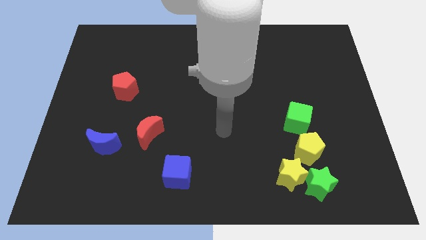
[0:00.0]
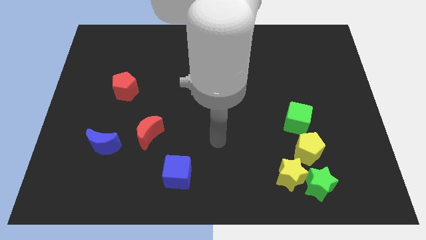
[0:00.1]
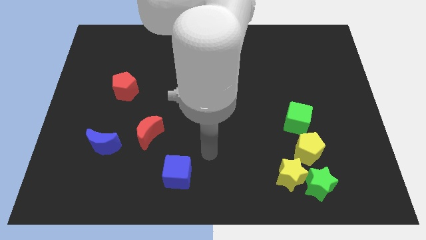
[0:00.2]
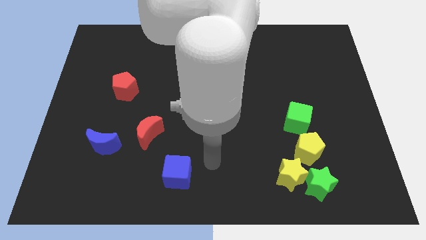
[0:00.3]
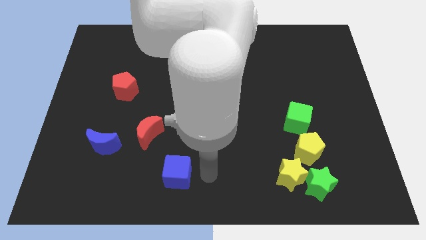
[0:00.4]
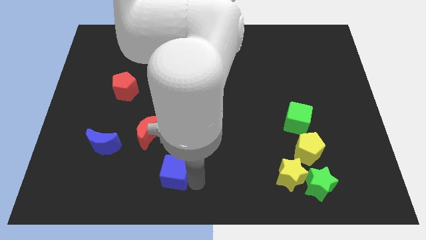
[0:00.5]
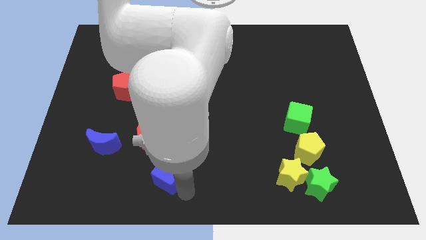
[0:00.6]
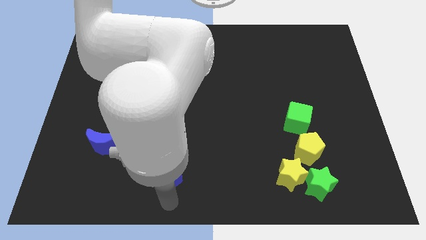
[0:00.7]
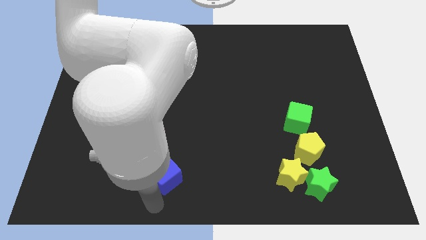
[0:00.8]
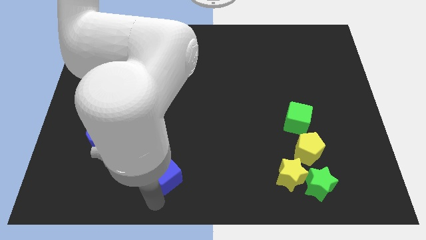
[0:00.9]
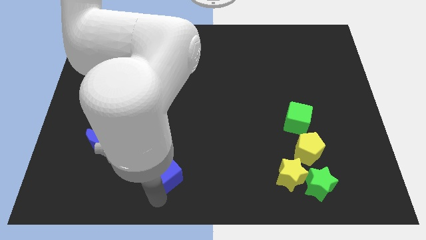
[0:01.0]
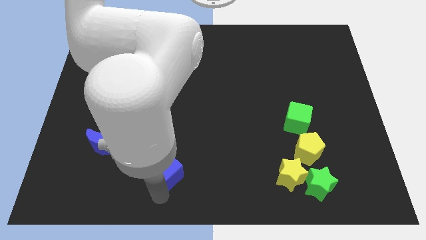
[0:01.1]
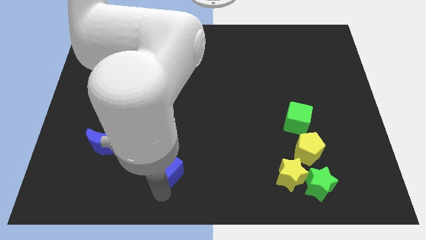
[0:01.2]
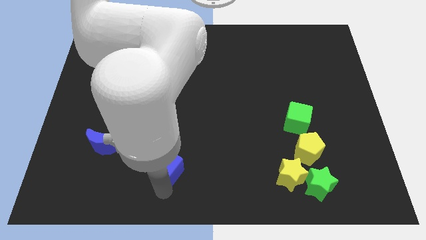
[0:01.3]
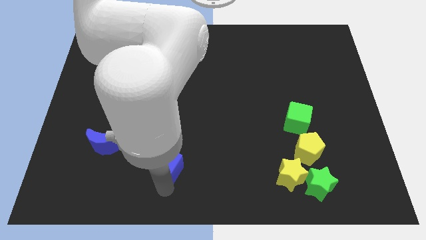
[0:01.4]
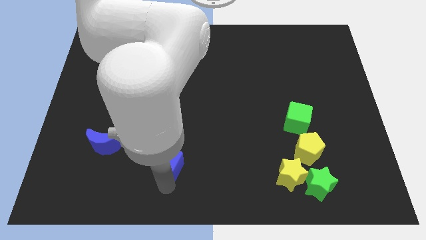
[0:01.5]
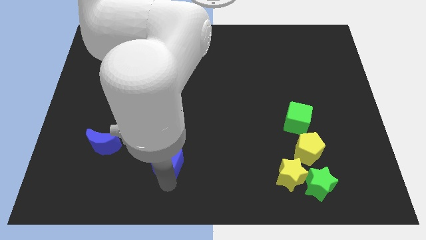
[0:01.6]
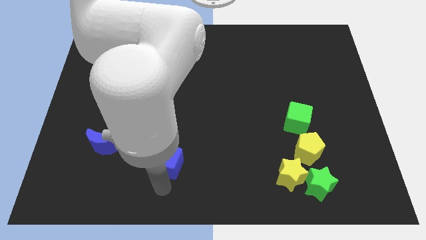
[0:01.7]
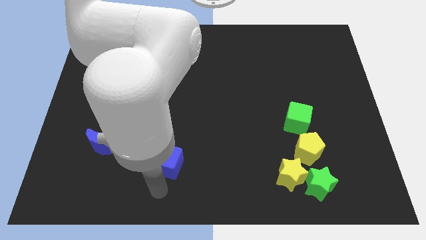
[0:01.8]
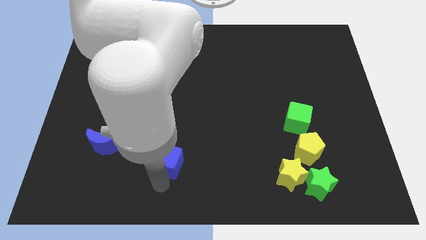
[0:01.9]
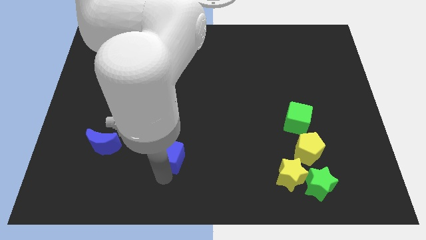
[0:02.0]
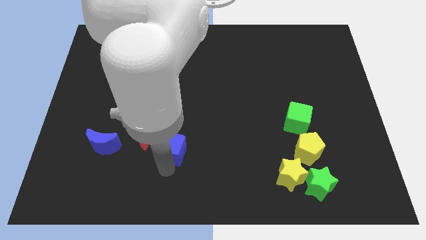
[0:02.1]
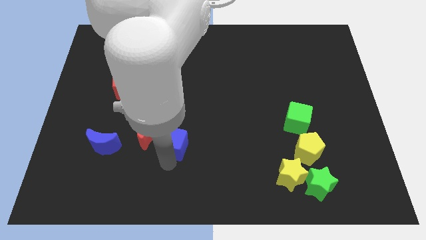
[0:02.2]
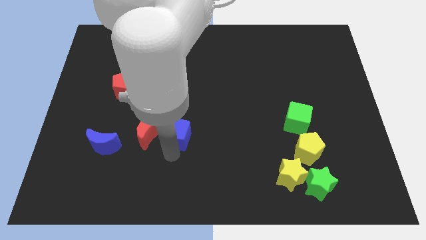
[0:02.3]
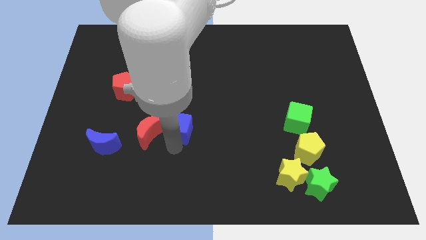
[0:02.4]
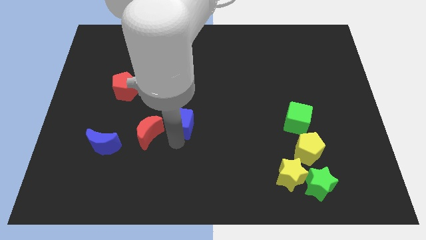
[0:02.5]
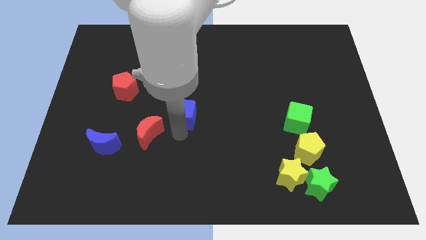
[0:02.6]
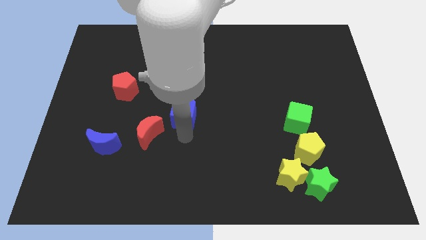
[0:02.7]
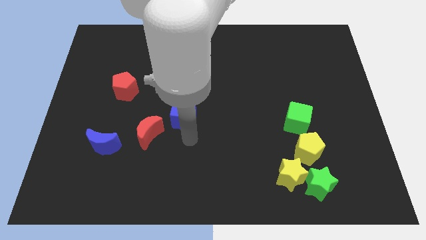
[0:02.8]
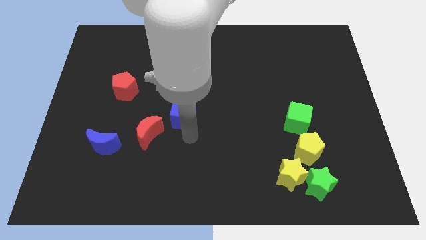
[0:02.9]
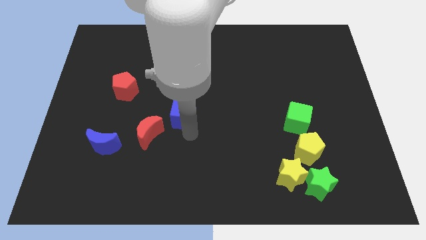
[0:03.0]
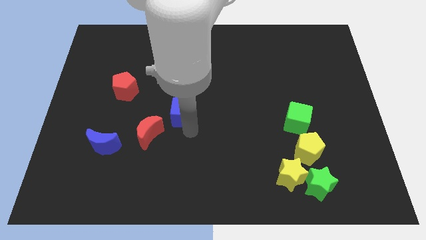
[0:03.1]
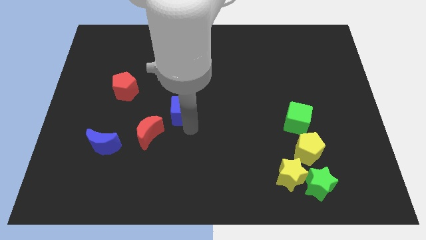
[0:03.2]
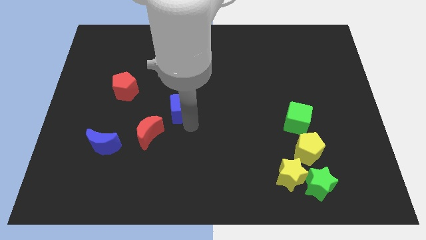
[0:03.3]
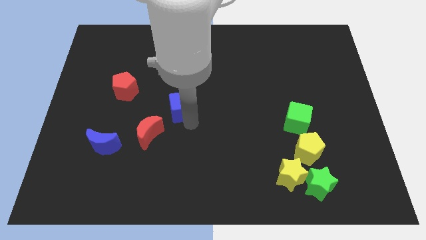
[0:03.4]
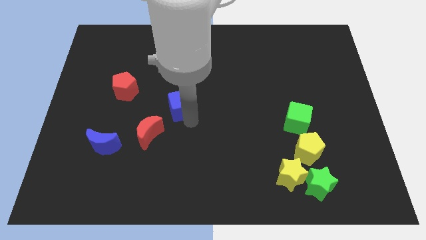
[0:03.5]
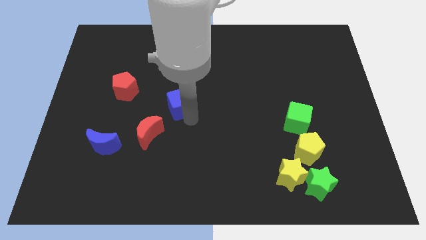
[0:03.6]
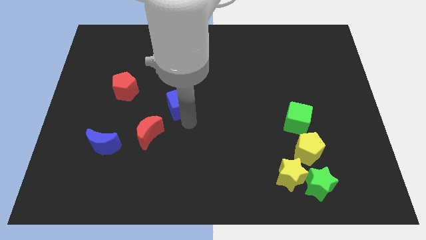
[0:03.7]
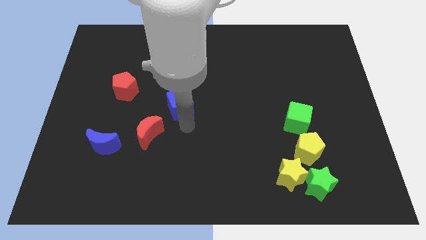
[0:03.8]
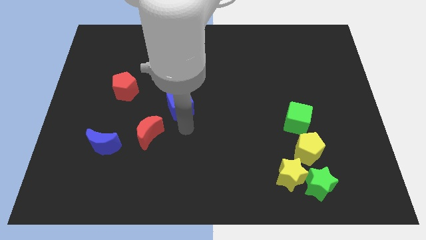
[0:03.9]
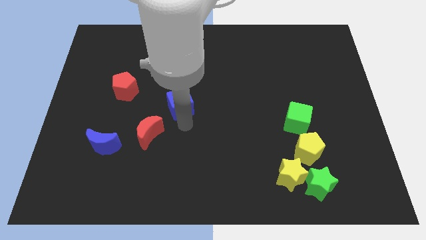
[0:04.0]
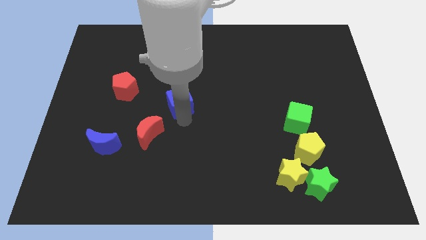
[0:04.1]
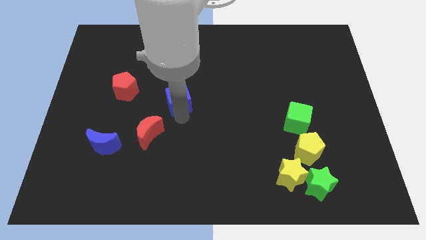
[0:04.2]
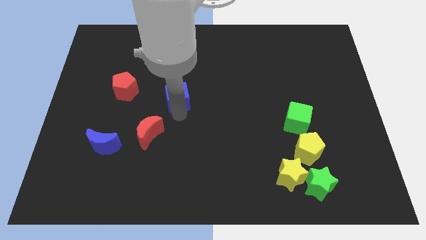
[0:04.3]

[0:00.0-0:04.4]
push the blue cube upwards

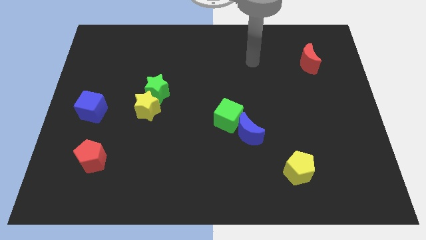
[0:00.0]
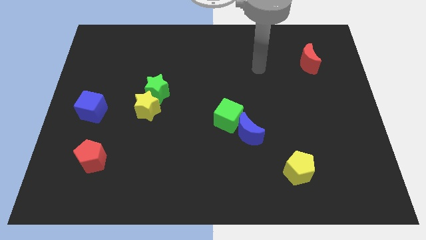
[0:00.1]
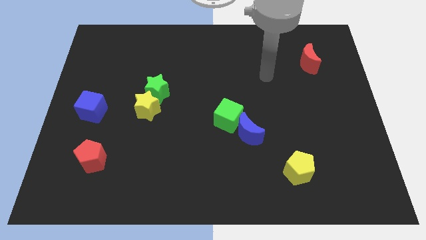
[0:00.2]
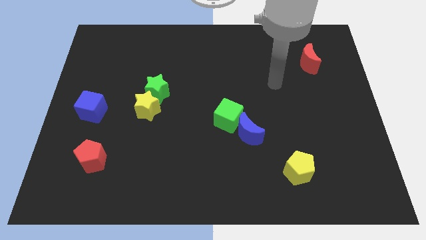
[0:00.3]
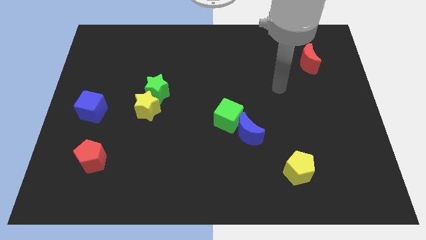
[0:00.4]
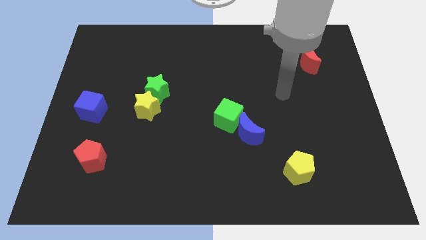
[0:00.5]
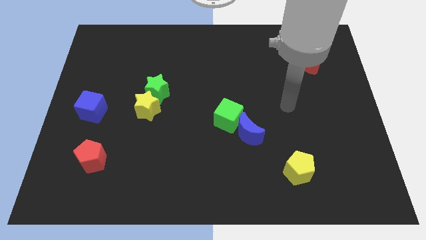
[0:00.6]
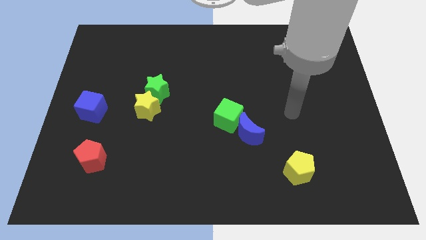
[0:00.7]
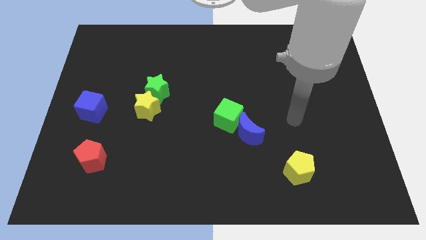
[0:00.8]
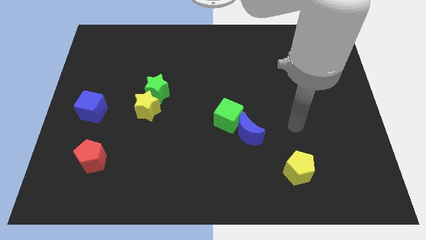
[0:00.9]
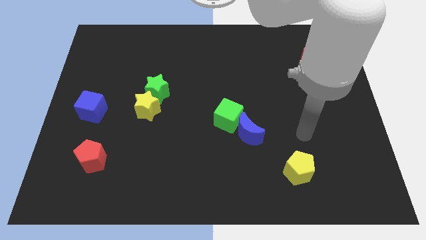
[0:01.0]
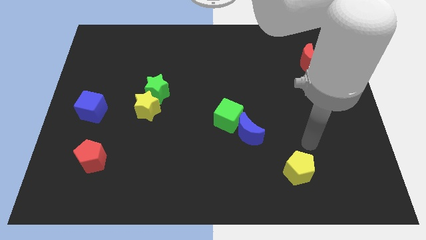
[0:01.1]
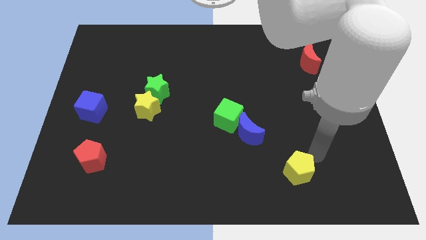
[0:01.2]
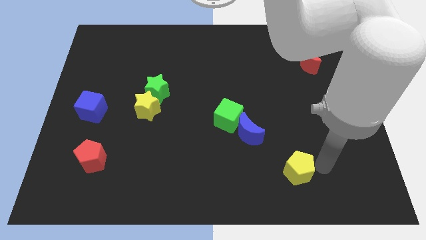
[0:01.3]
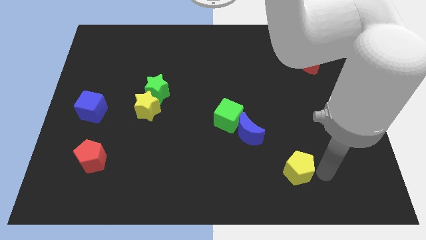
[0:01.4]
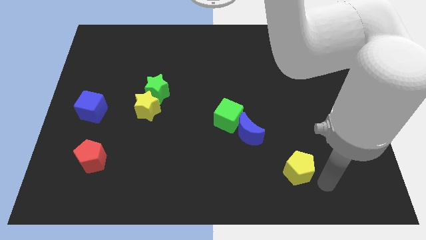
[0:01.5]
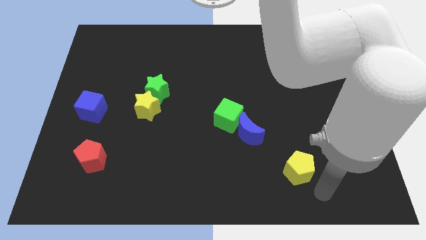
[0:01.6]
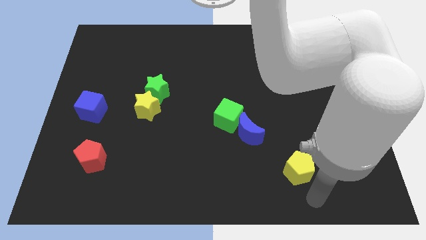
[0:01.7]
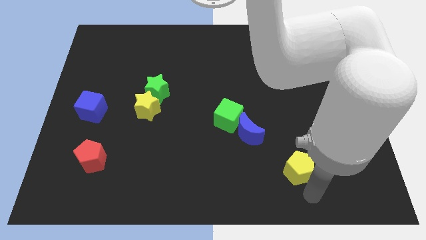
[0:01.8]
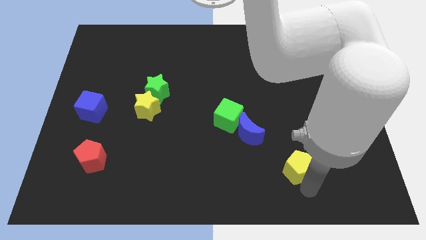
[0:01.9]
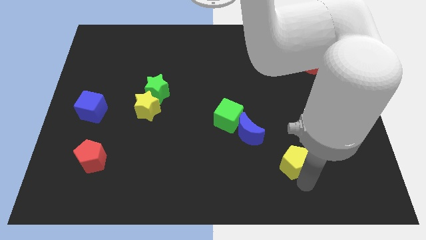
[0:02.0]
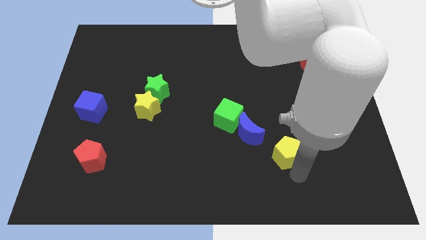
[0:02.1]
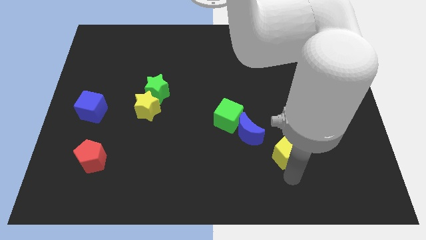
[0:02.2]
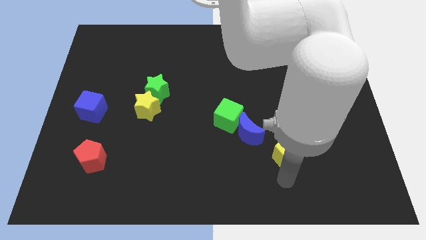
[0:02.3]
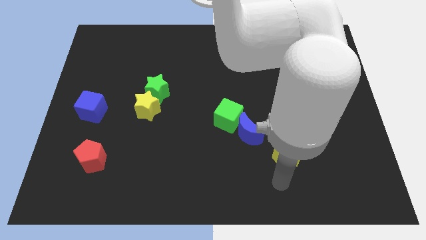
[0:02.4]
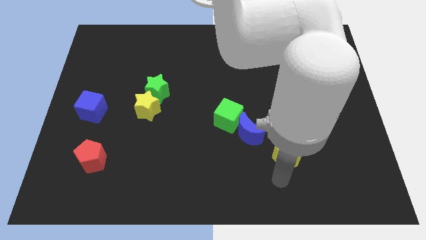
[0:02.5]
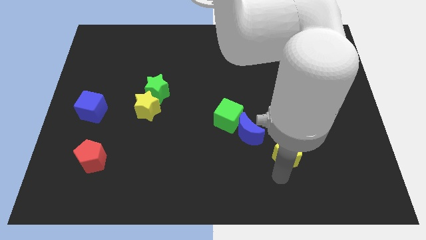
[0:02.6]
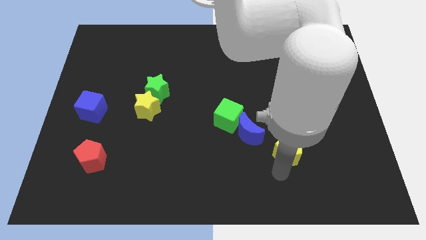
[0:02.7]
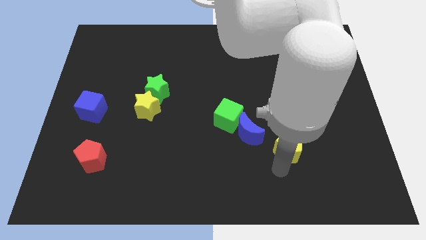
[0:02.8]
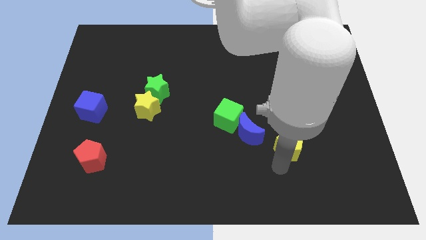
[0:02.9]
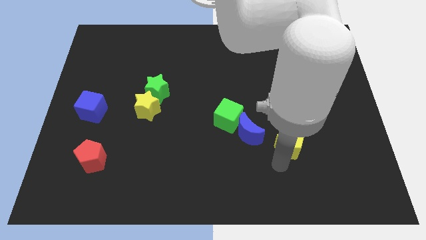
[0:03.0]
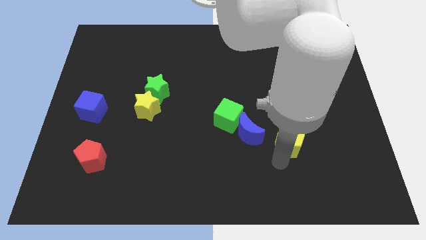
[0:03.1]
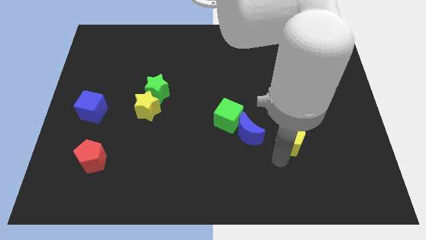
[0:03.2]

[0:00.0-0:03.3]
slightly move the yellow pentagon up

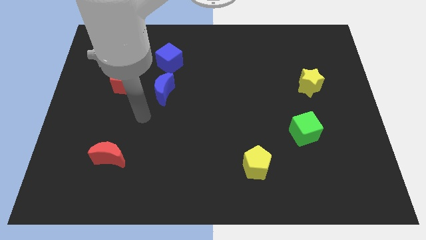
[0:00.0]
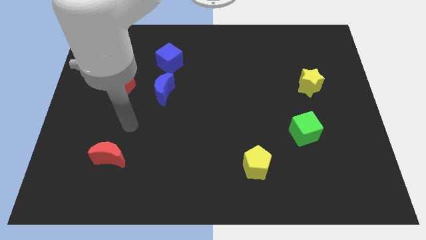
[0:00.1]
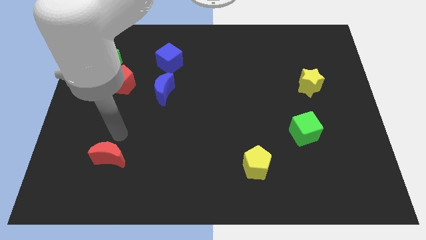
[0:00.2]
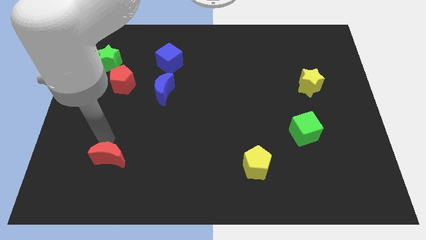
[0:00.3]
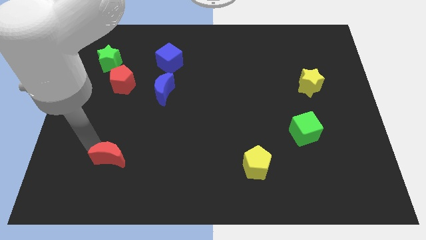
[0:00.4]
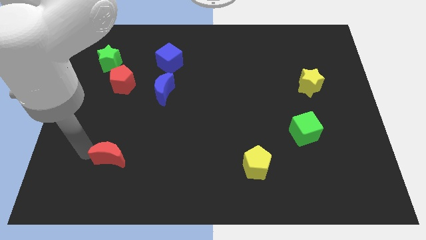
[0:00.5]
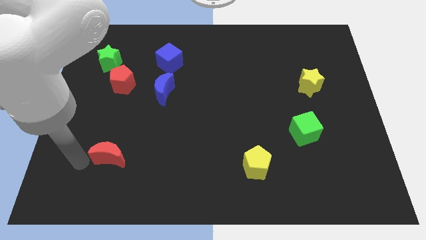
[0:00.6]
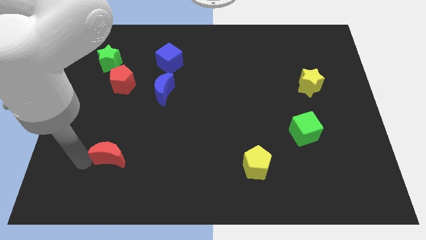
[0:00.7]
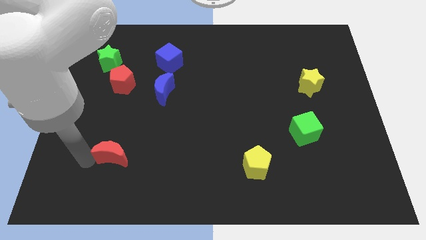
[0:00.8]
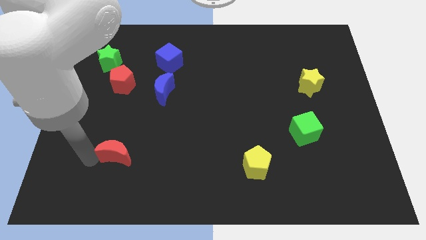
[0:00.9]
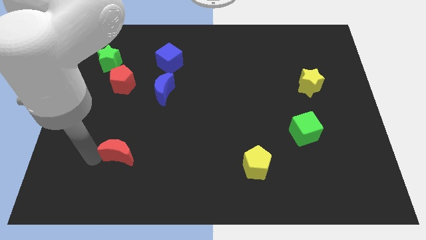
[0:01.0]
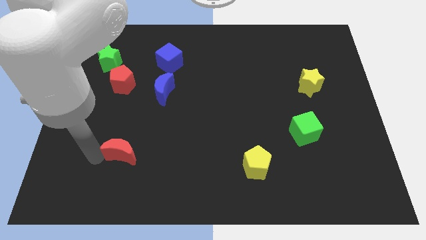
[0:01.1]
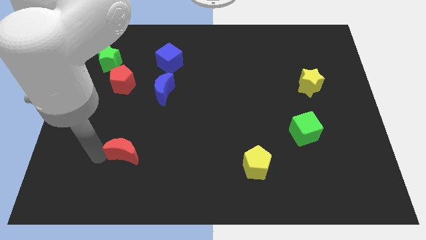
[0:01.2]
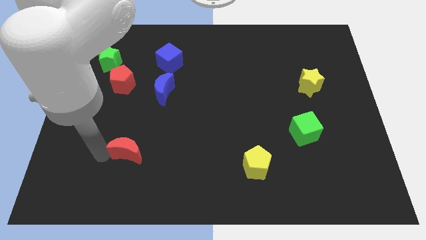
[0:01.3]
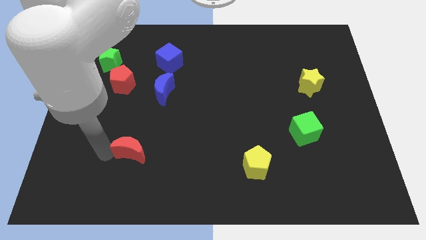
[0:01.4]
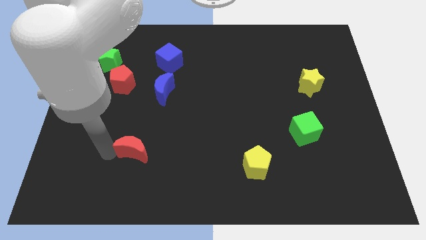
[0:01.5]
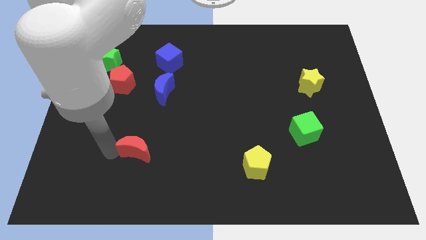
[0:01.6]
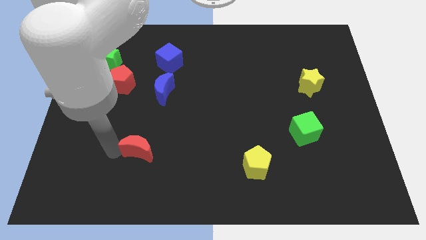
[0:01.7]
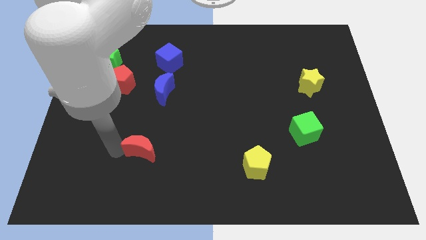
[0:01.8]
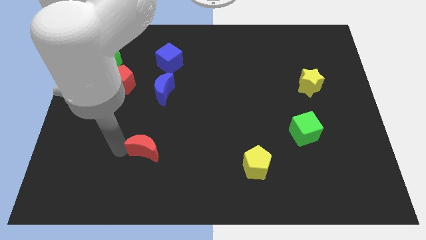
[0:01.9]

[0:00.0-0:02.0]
slide the red moon a little bit to the right
